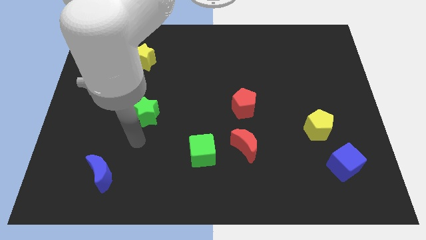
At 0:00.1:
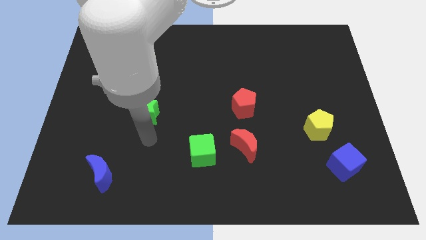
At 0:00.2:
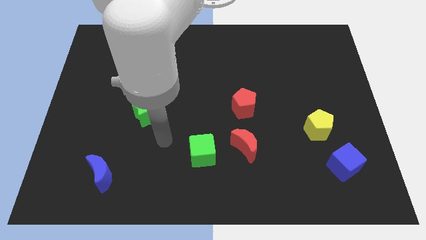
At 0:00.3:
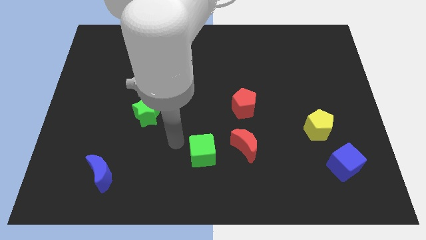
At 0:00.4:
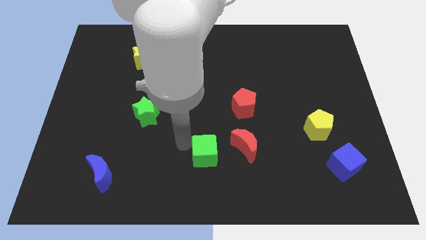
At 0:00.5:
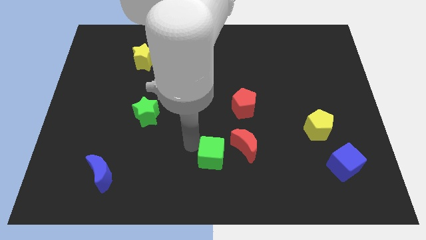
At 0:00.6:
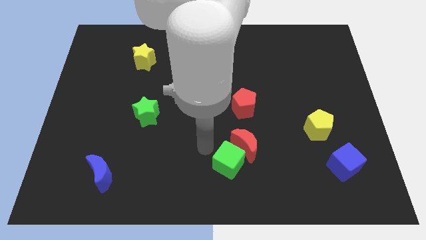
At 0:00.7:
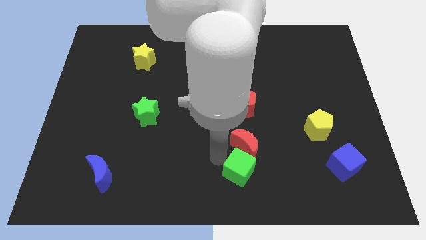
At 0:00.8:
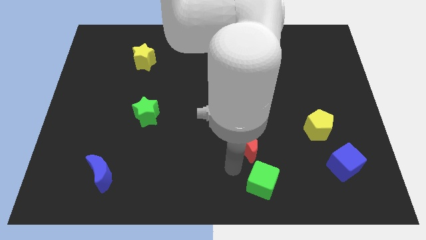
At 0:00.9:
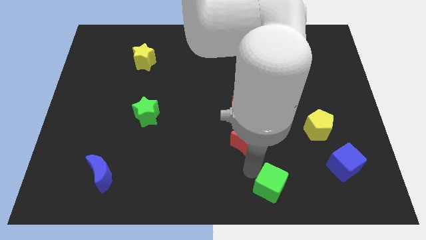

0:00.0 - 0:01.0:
separate the red moon from the green cube

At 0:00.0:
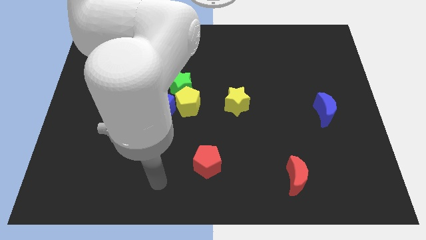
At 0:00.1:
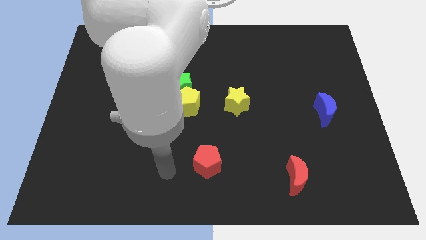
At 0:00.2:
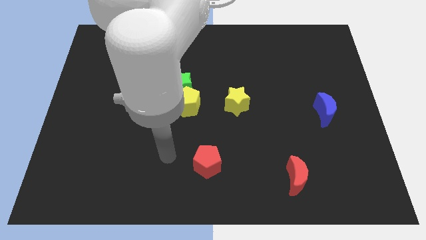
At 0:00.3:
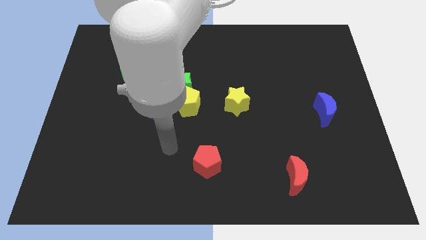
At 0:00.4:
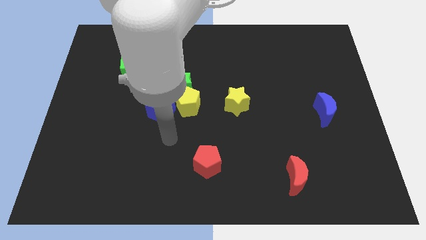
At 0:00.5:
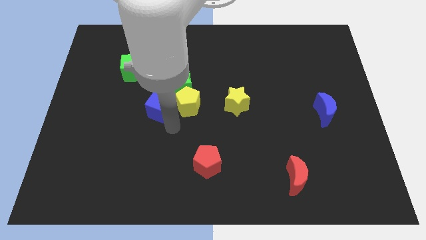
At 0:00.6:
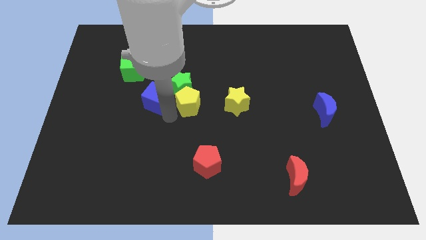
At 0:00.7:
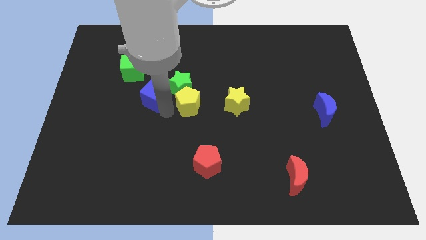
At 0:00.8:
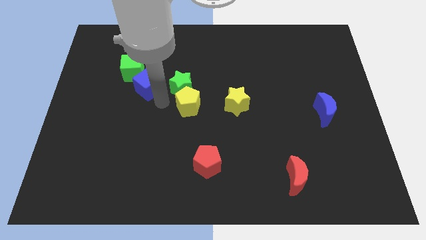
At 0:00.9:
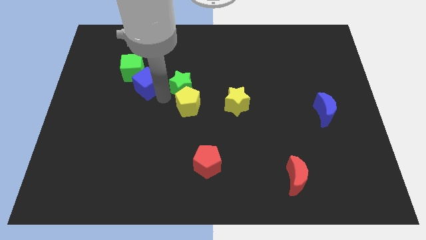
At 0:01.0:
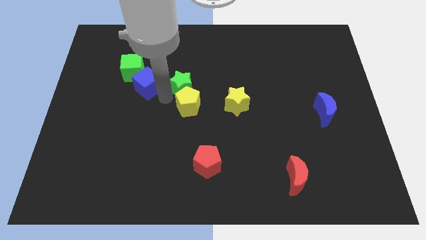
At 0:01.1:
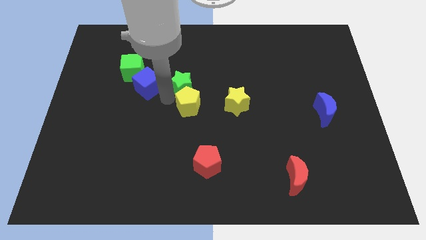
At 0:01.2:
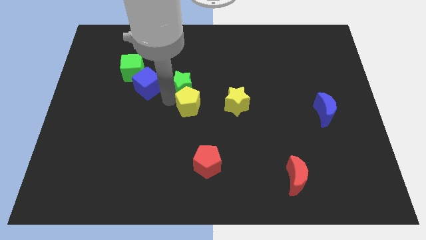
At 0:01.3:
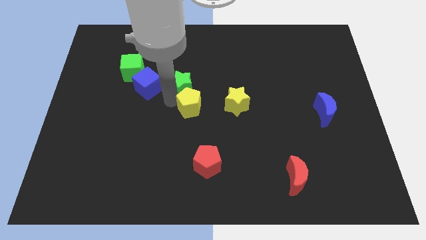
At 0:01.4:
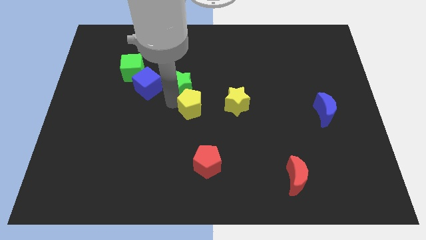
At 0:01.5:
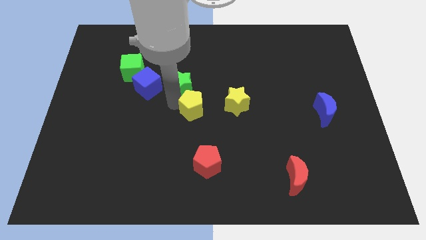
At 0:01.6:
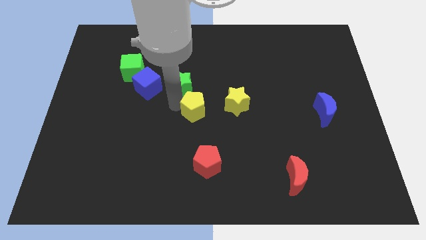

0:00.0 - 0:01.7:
separate the yellow pentagon from the green star and blue cube

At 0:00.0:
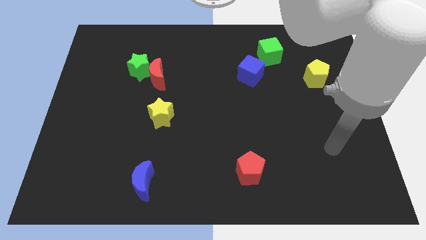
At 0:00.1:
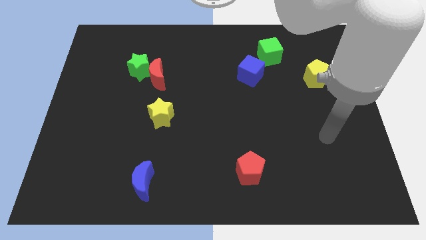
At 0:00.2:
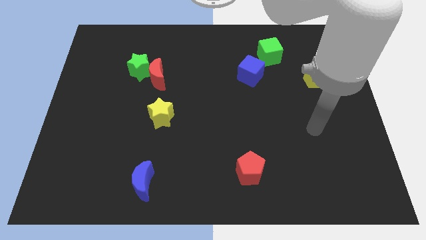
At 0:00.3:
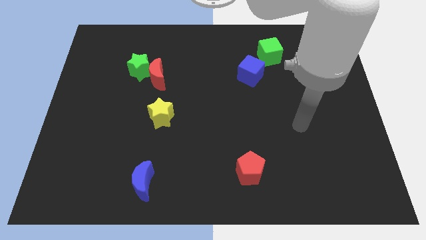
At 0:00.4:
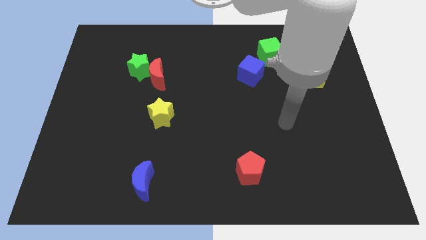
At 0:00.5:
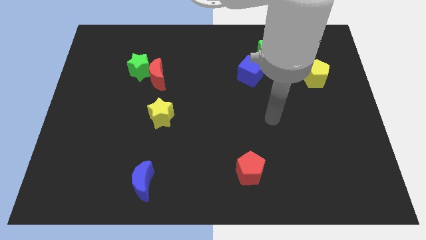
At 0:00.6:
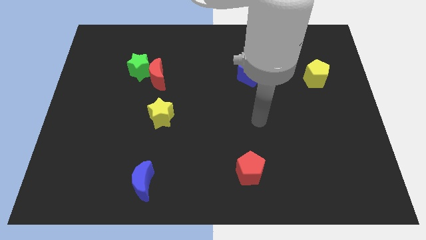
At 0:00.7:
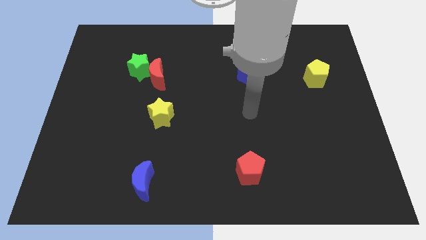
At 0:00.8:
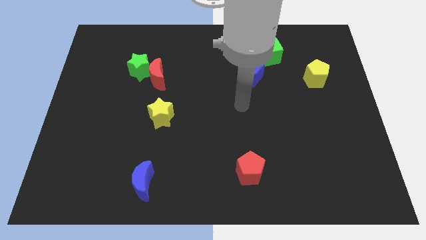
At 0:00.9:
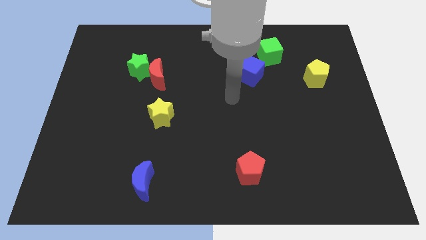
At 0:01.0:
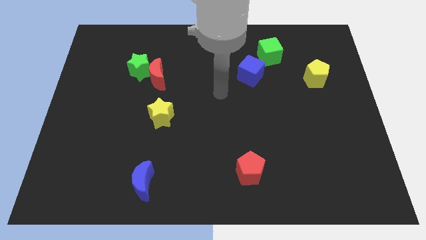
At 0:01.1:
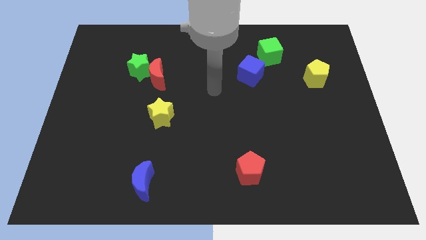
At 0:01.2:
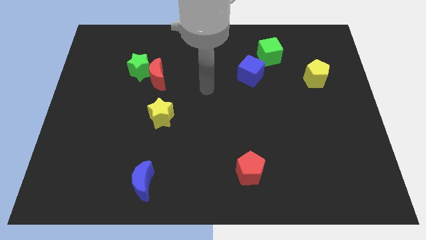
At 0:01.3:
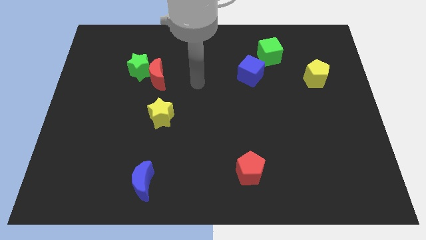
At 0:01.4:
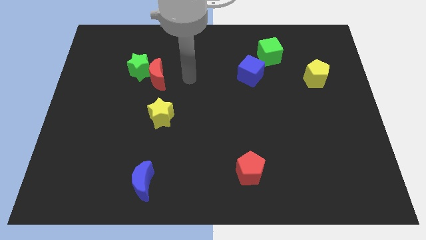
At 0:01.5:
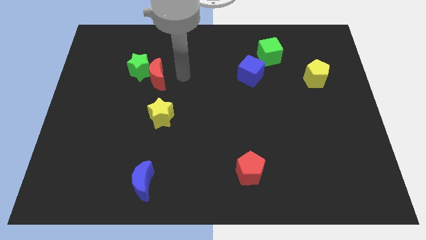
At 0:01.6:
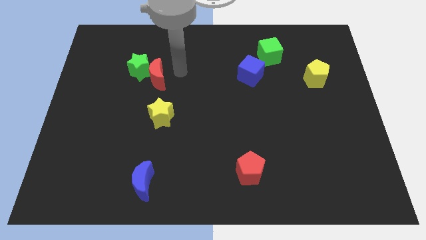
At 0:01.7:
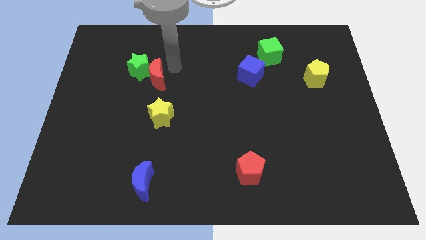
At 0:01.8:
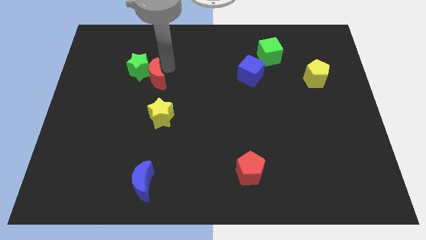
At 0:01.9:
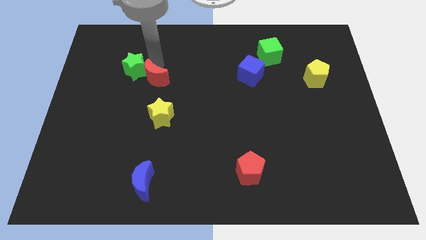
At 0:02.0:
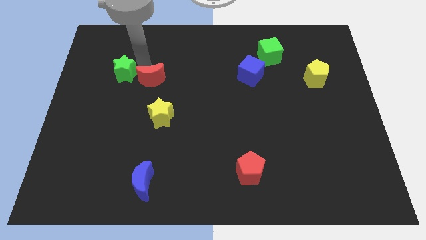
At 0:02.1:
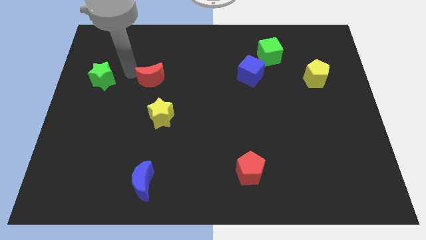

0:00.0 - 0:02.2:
move the red moon away from the green star

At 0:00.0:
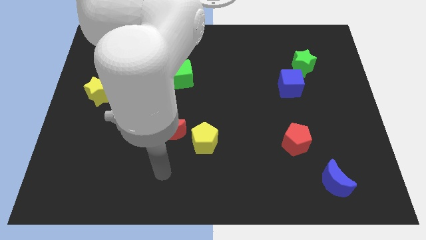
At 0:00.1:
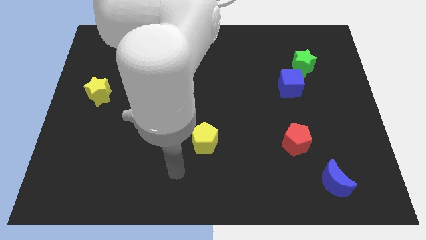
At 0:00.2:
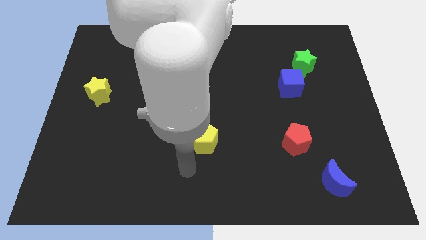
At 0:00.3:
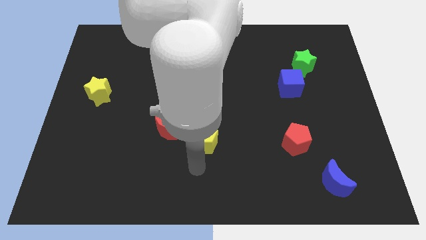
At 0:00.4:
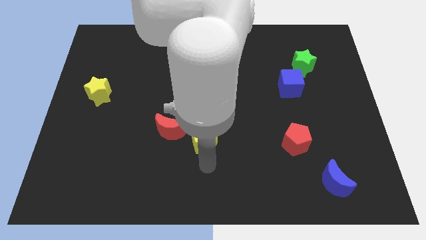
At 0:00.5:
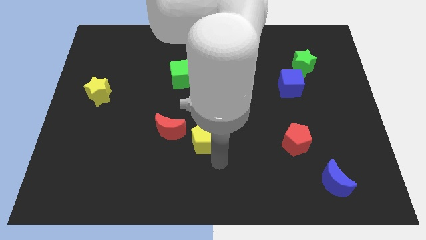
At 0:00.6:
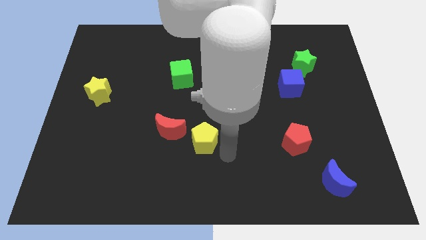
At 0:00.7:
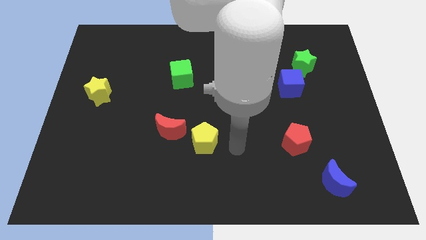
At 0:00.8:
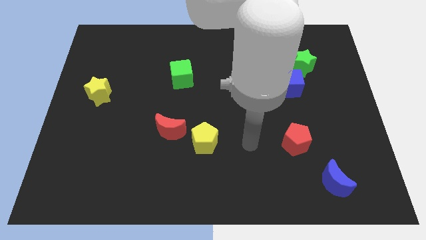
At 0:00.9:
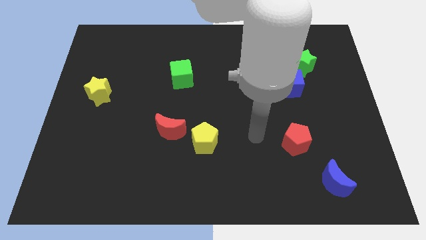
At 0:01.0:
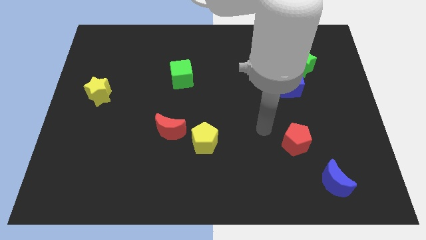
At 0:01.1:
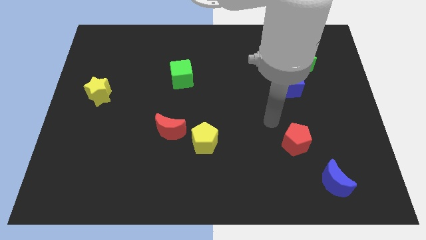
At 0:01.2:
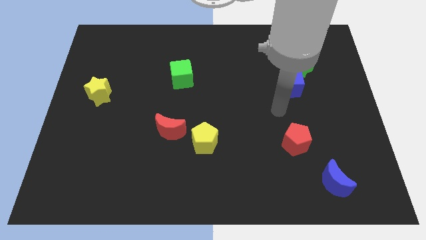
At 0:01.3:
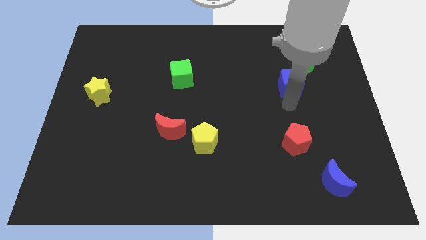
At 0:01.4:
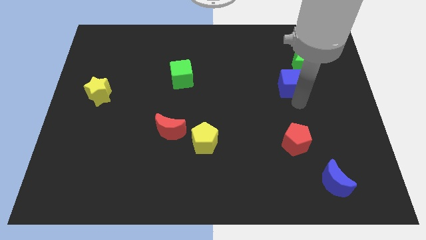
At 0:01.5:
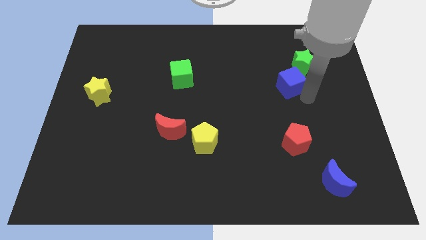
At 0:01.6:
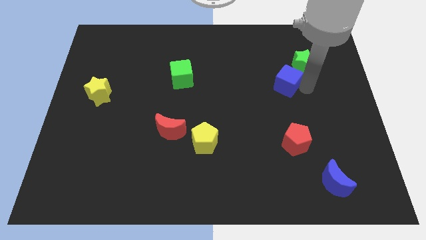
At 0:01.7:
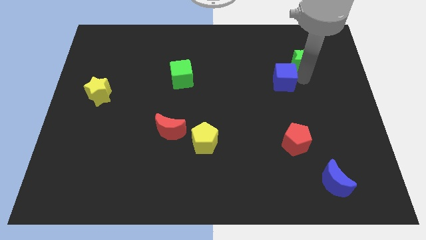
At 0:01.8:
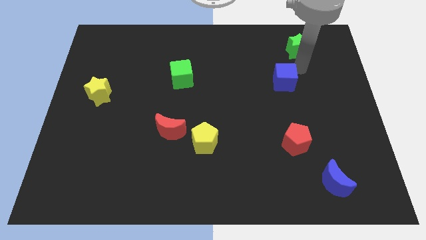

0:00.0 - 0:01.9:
separate the blue cube from the green star

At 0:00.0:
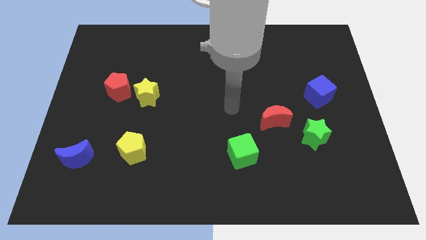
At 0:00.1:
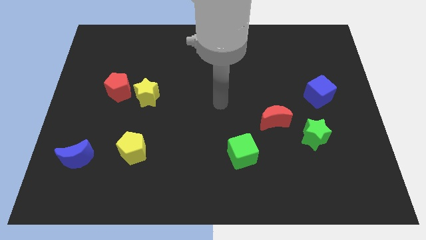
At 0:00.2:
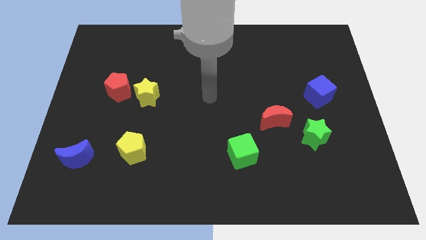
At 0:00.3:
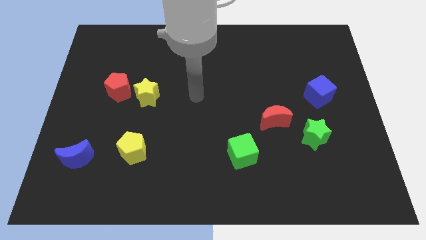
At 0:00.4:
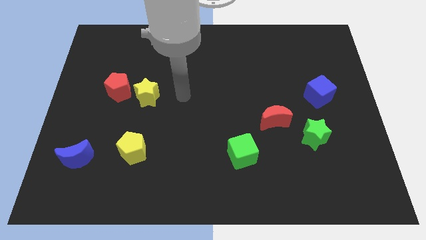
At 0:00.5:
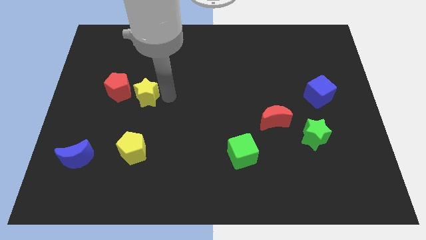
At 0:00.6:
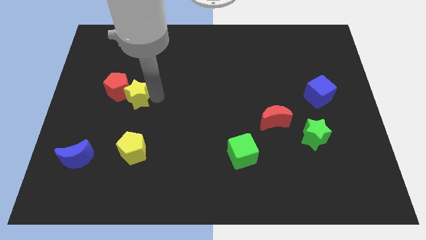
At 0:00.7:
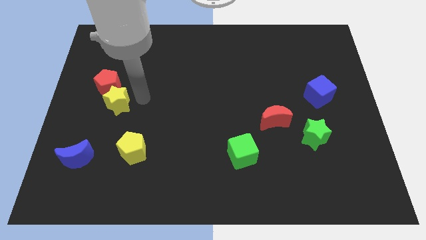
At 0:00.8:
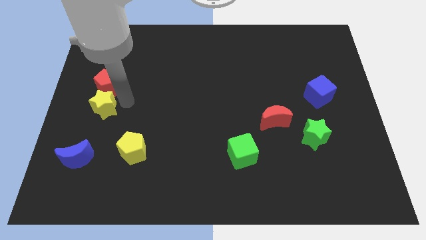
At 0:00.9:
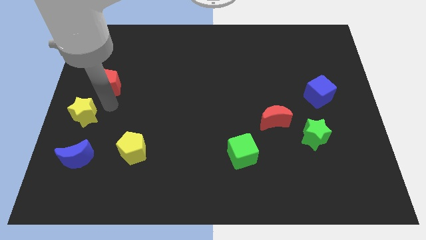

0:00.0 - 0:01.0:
pull the red pentagon apart from the yellow star

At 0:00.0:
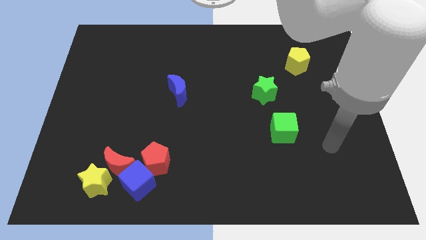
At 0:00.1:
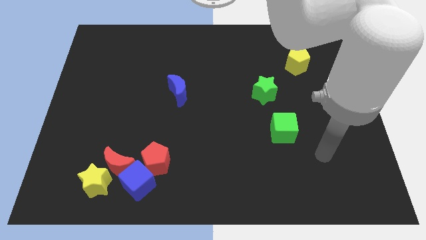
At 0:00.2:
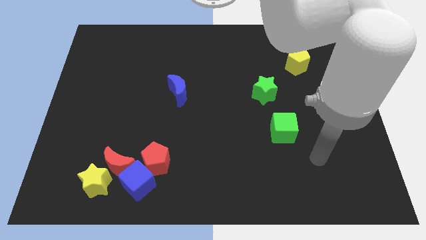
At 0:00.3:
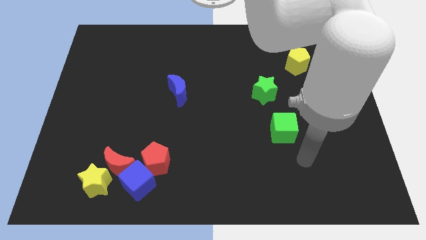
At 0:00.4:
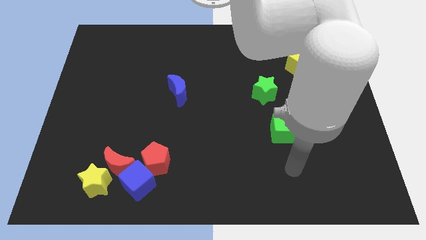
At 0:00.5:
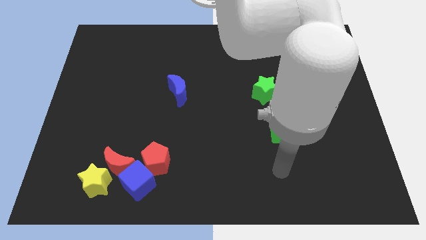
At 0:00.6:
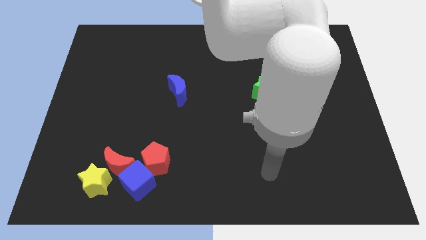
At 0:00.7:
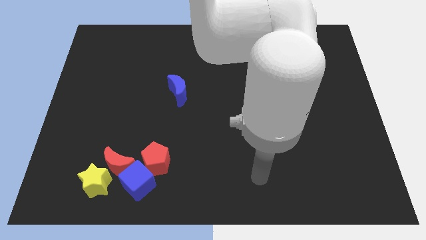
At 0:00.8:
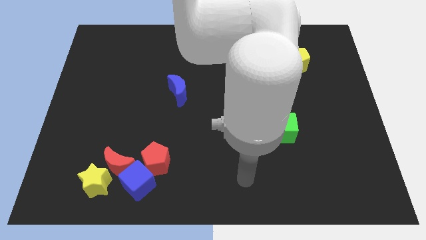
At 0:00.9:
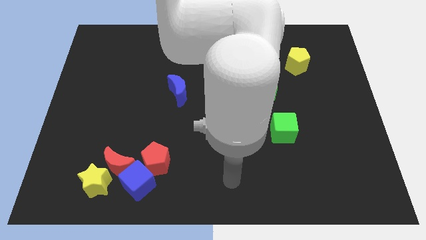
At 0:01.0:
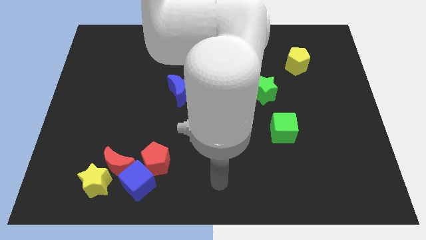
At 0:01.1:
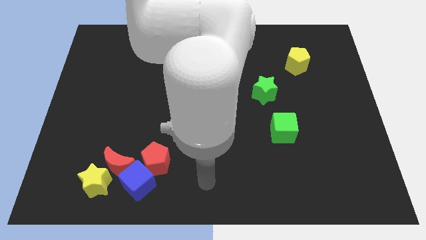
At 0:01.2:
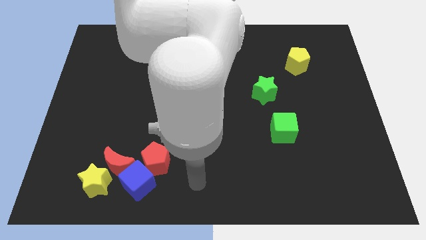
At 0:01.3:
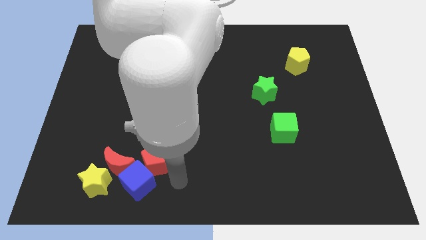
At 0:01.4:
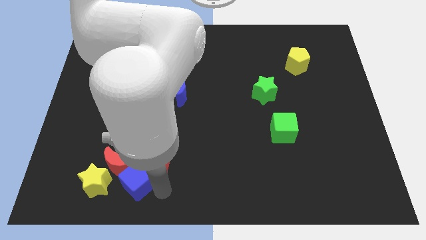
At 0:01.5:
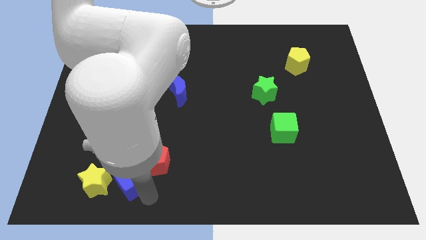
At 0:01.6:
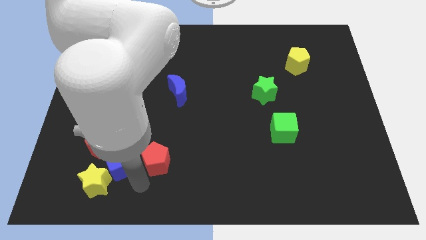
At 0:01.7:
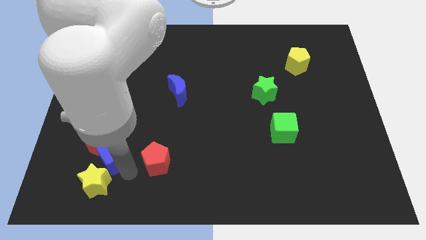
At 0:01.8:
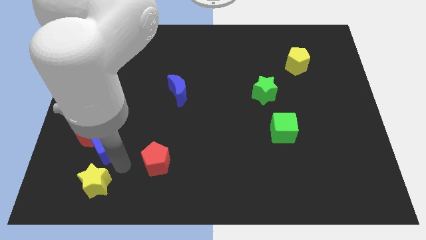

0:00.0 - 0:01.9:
pull the red moon apart from the yellow star, blue cube, and red pentagon
